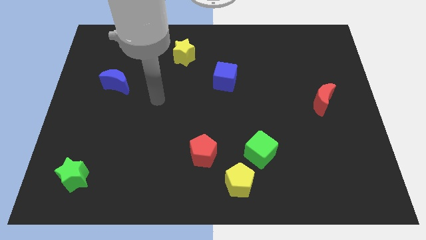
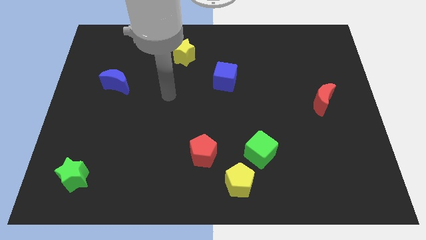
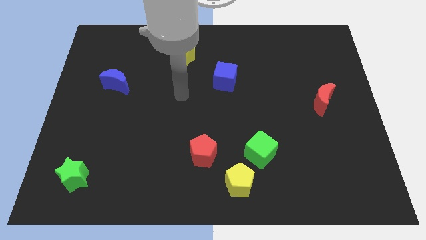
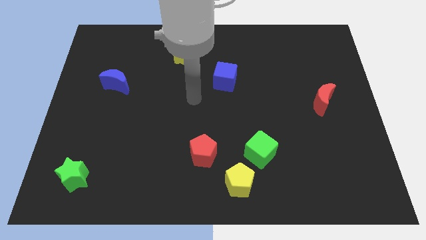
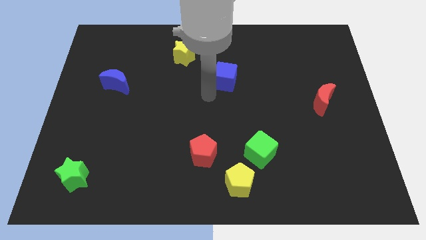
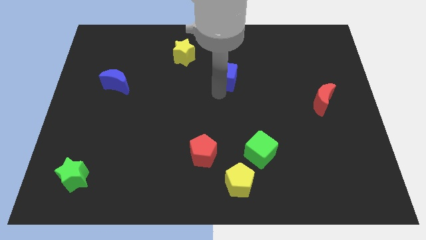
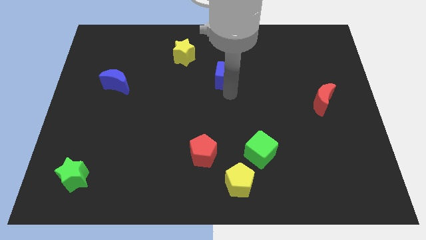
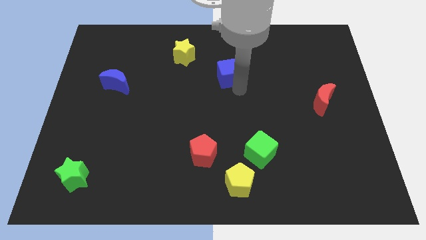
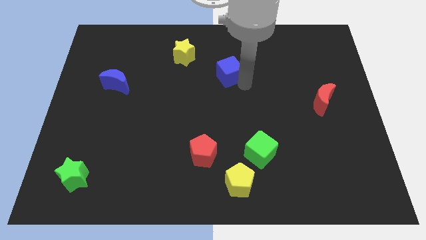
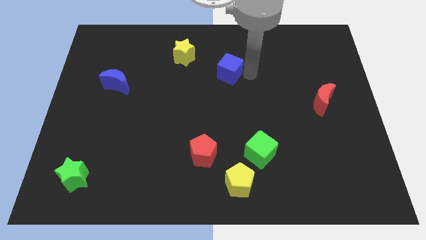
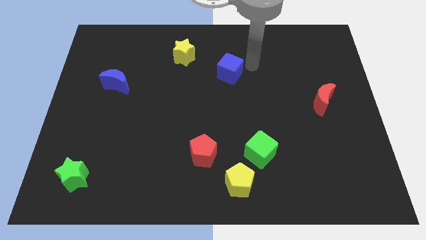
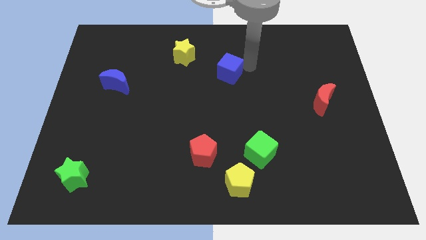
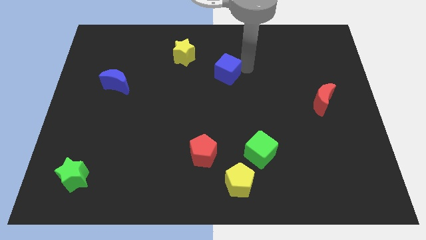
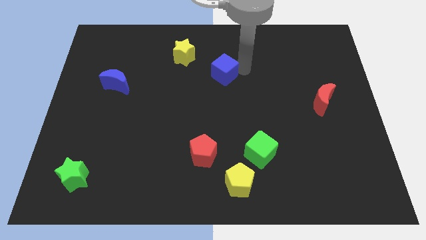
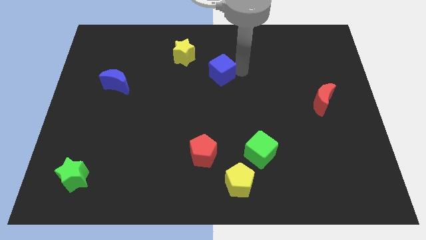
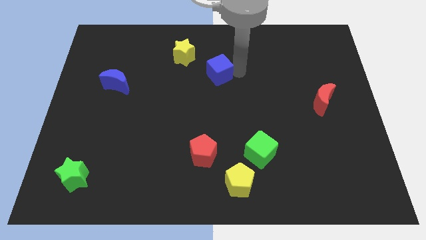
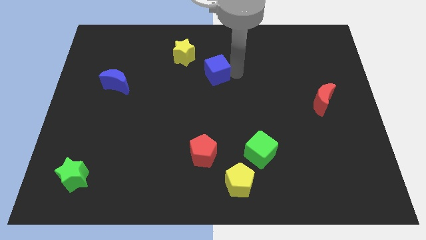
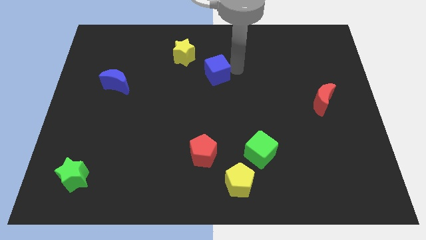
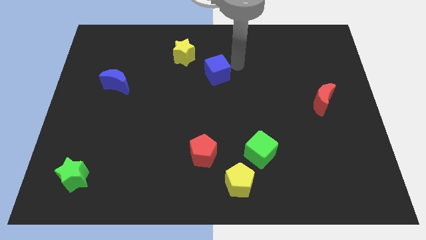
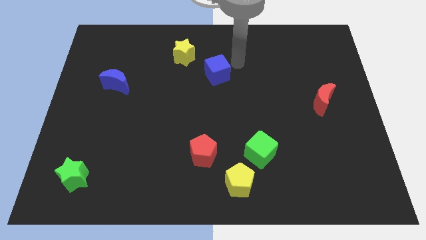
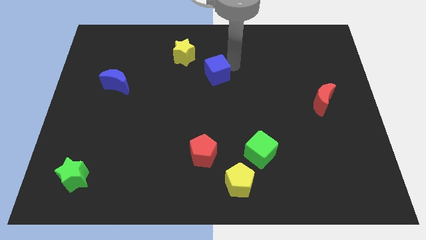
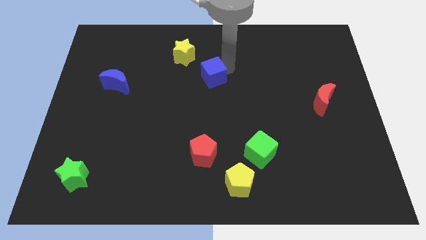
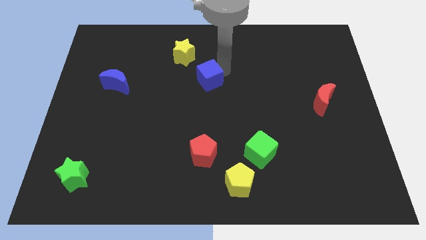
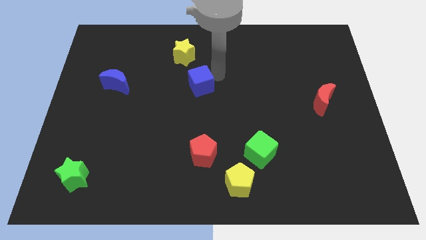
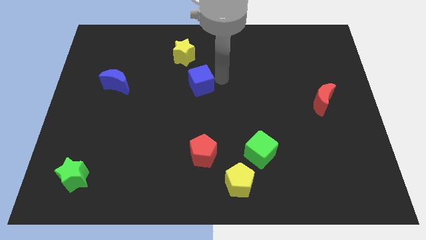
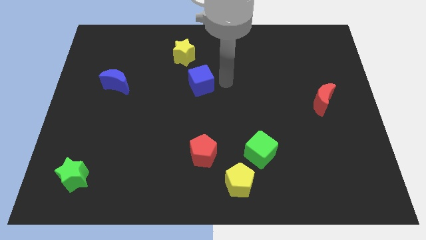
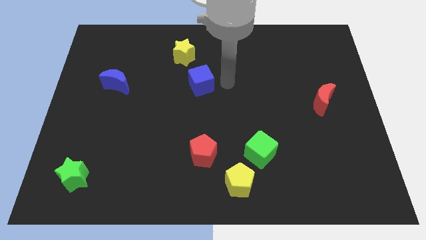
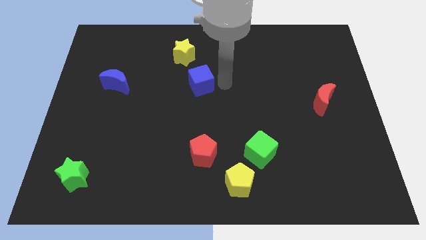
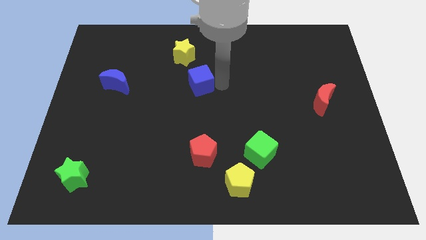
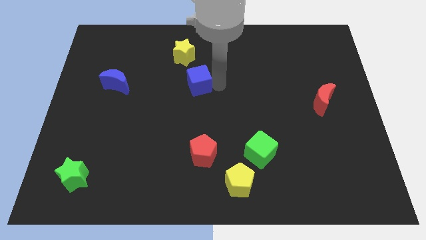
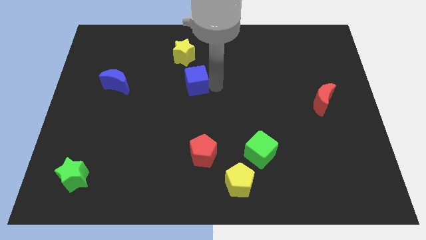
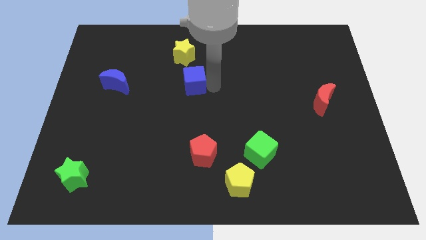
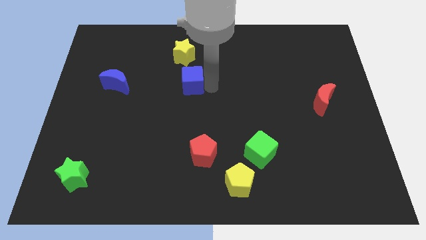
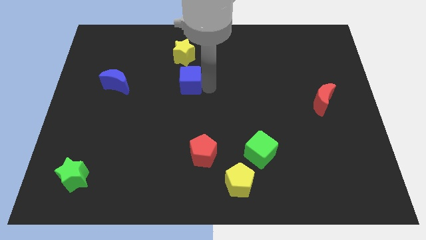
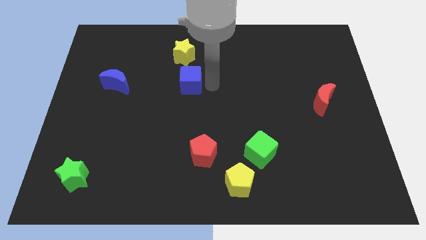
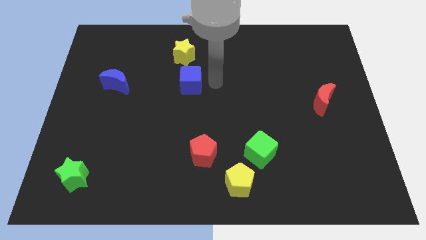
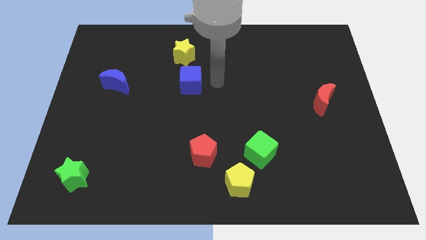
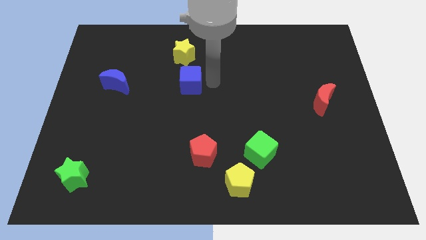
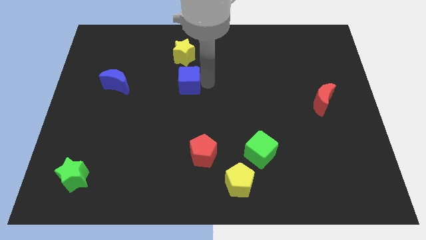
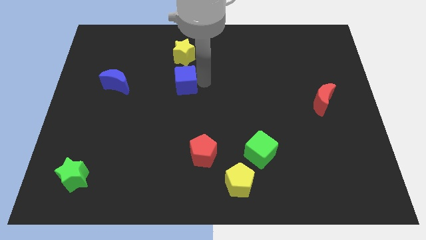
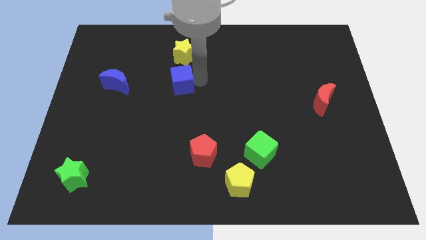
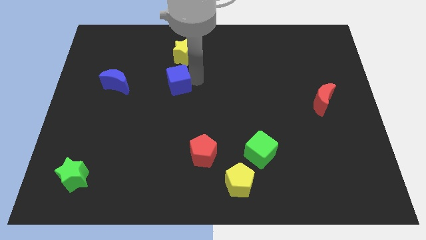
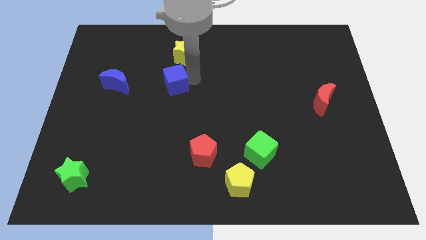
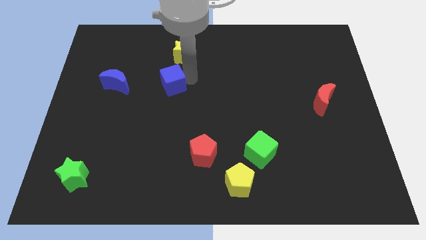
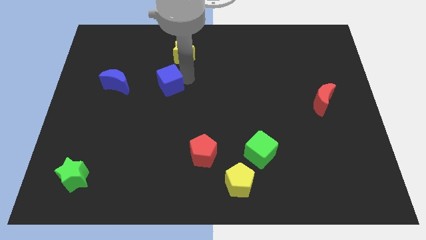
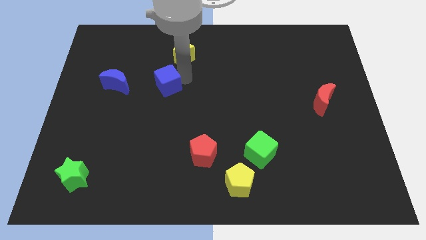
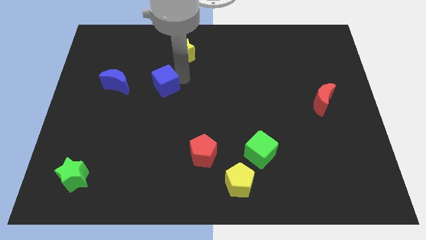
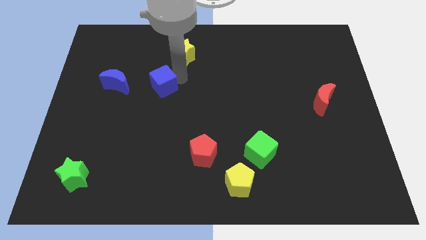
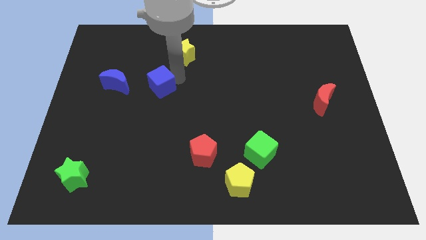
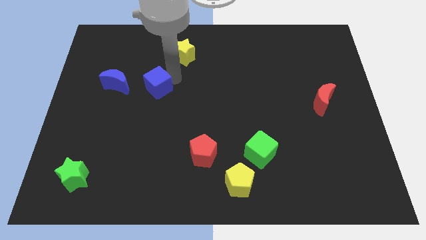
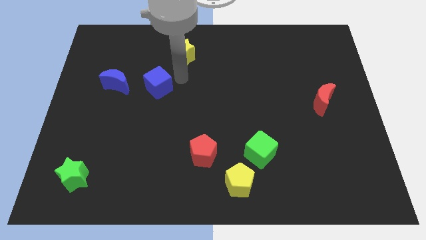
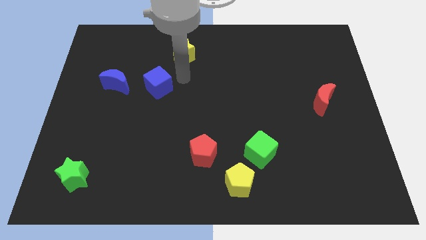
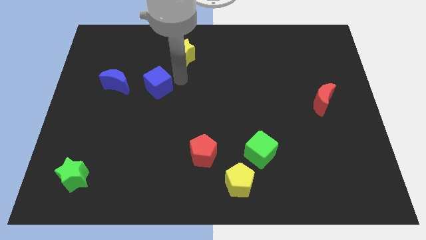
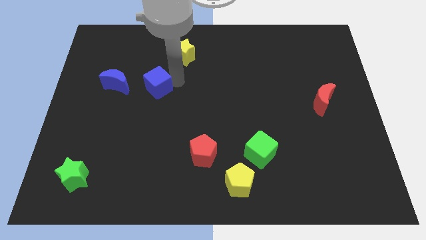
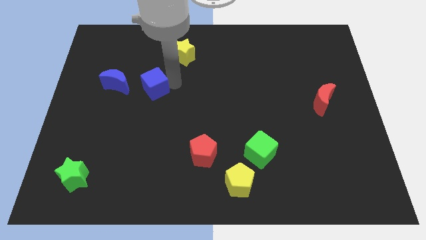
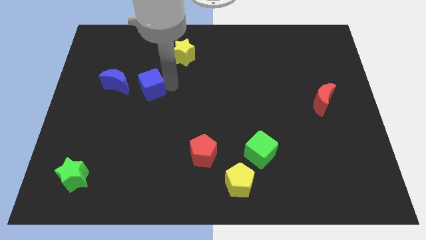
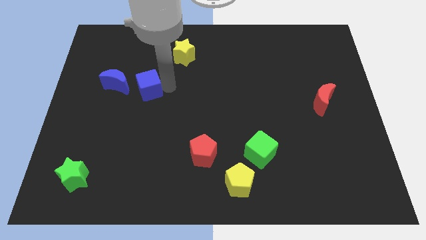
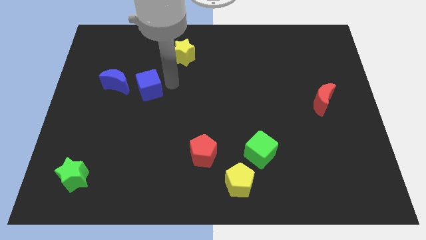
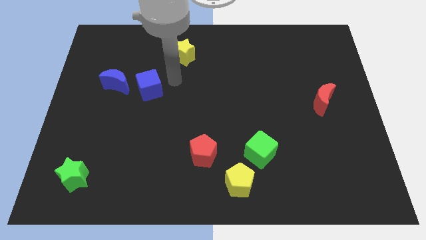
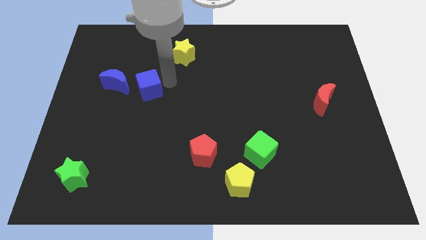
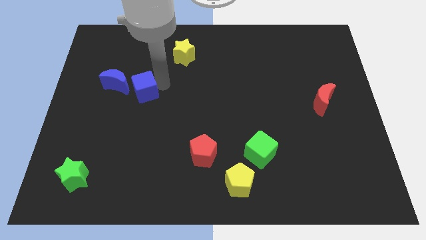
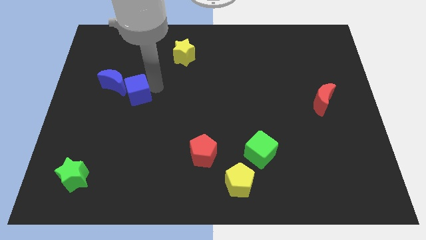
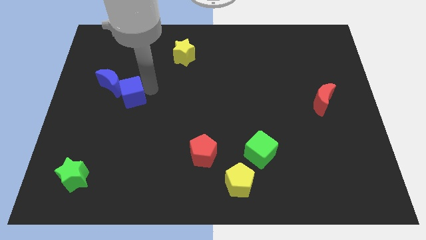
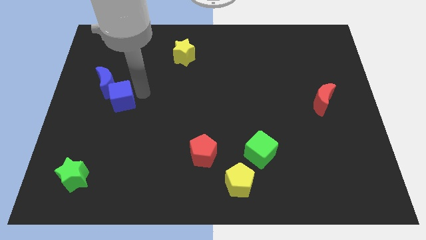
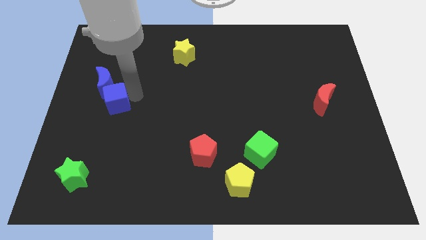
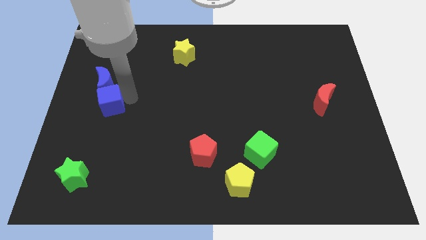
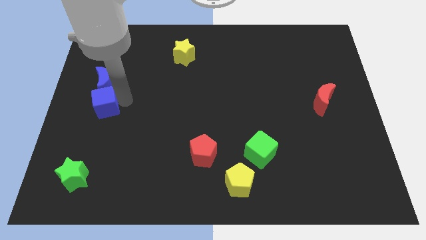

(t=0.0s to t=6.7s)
push the blue cube to the left side

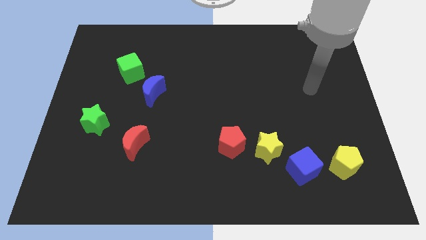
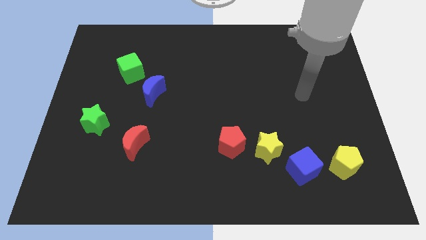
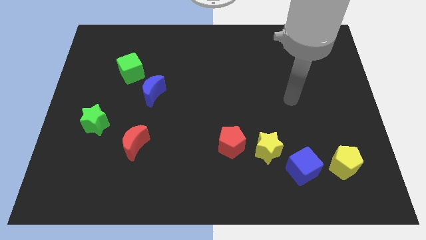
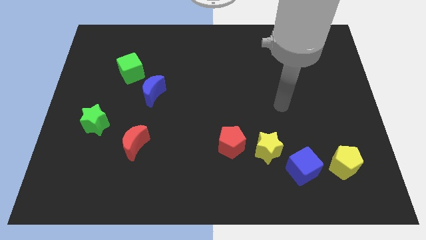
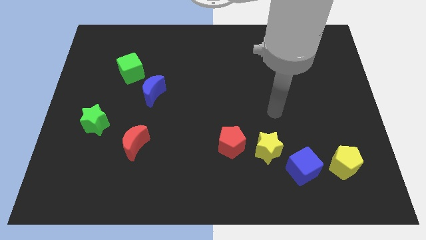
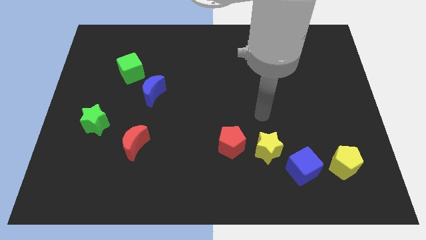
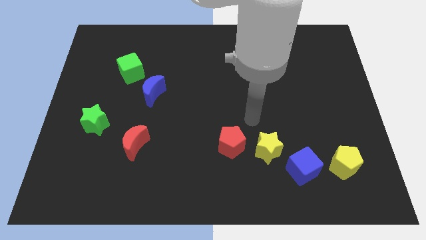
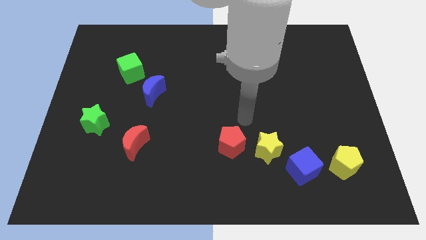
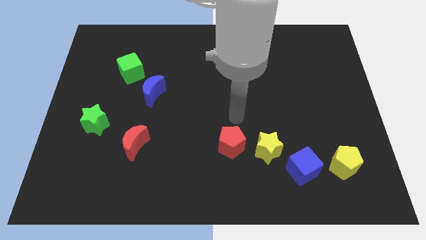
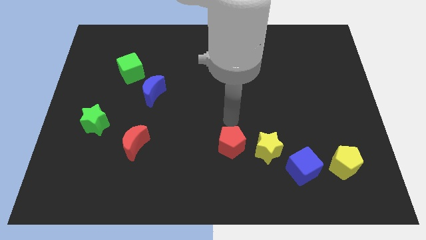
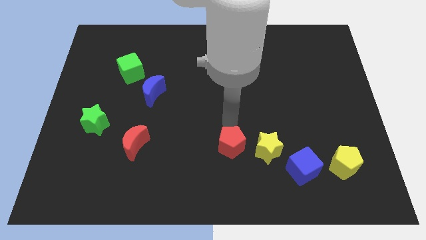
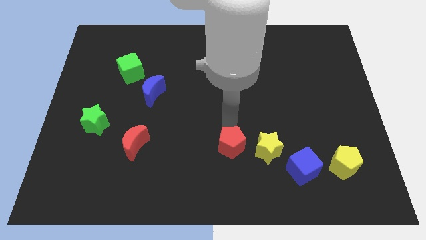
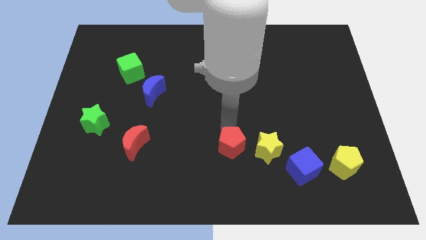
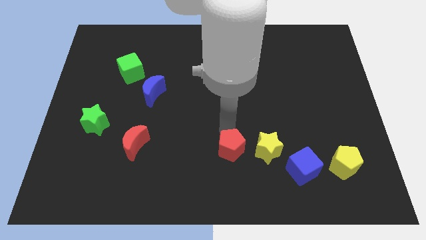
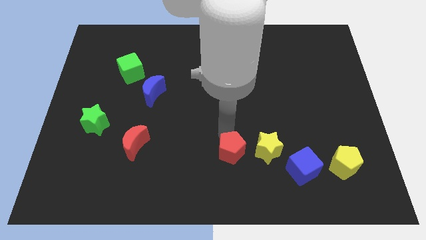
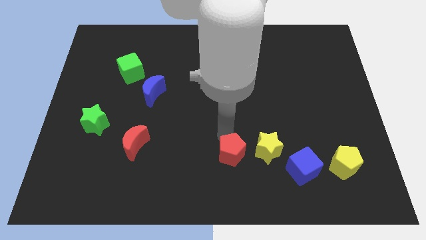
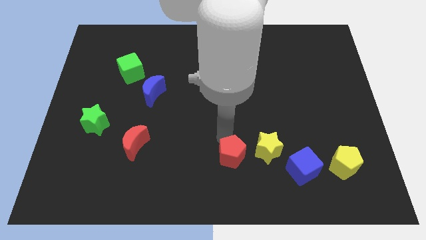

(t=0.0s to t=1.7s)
push the red pentagon to the bottom
